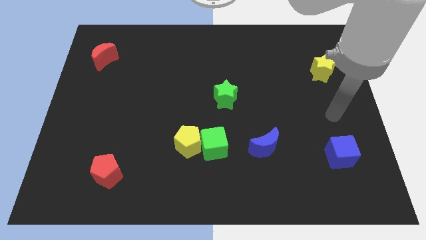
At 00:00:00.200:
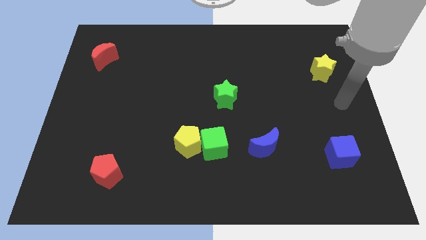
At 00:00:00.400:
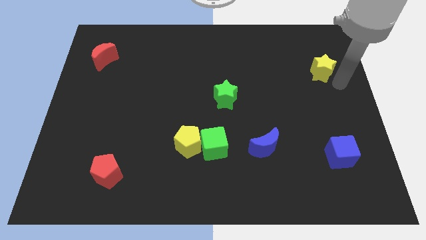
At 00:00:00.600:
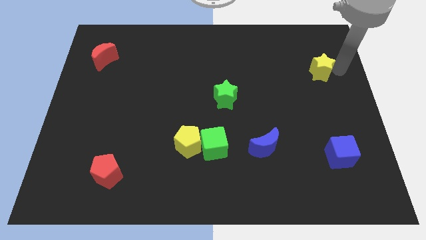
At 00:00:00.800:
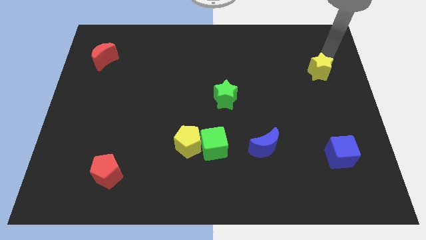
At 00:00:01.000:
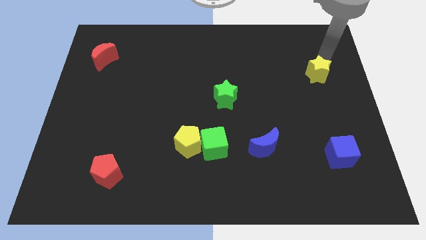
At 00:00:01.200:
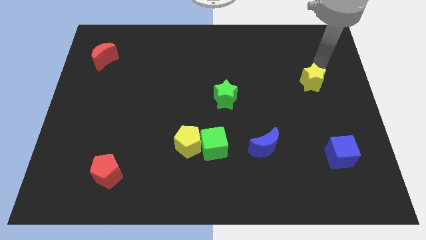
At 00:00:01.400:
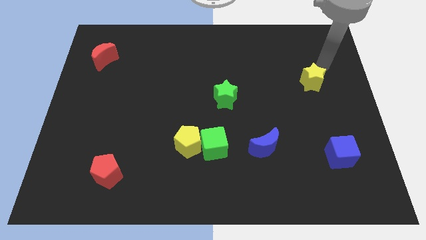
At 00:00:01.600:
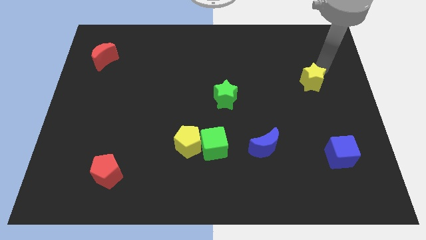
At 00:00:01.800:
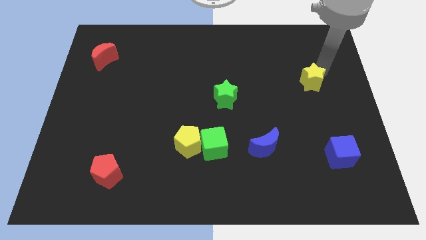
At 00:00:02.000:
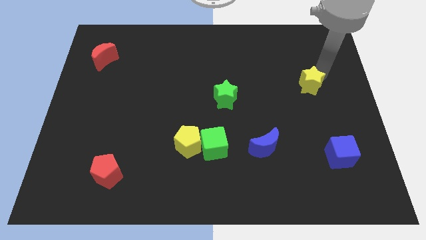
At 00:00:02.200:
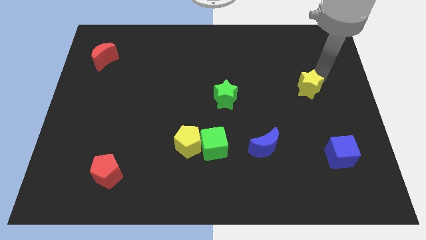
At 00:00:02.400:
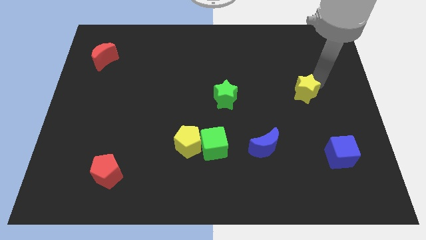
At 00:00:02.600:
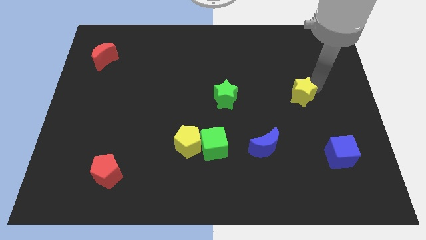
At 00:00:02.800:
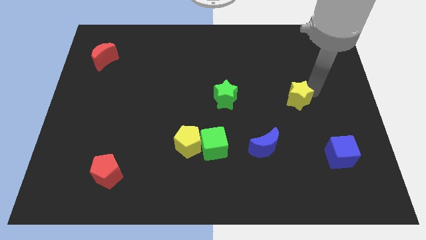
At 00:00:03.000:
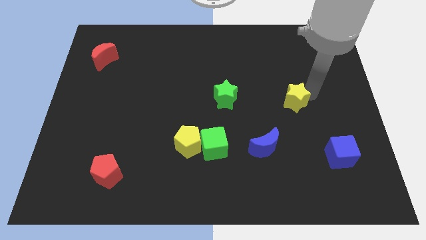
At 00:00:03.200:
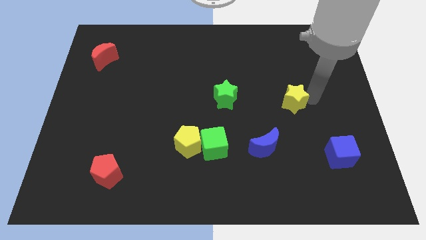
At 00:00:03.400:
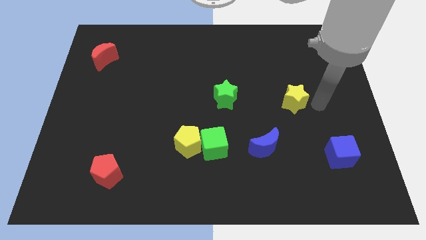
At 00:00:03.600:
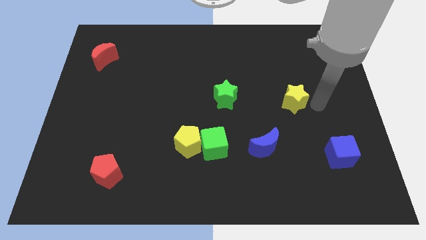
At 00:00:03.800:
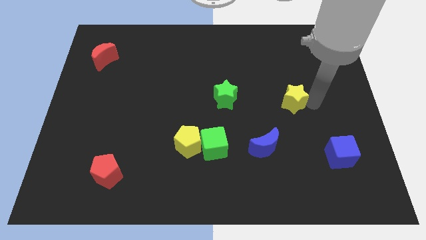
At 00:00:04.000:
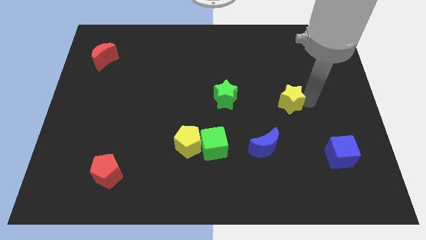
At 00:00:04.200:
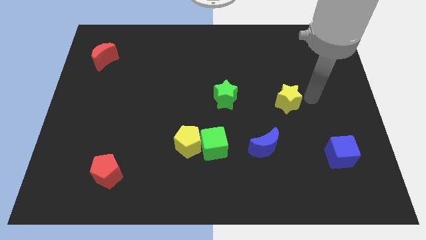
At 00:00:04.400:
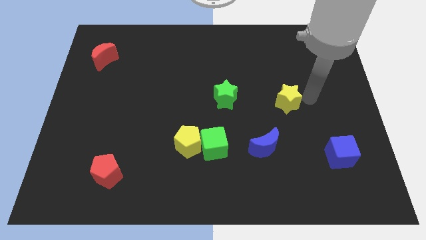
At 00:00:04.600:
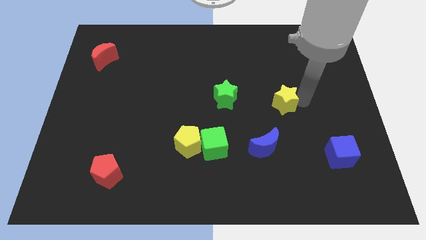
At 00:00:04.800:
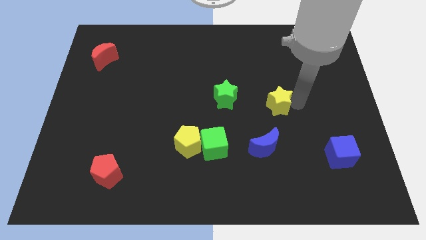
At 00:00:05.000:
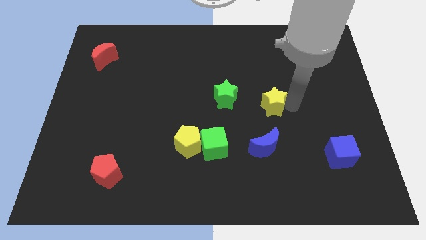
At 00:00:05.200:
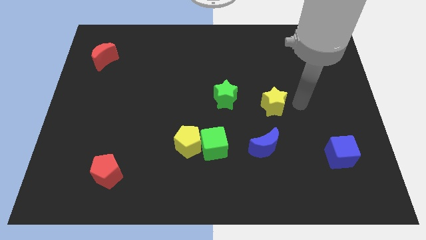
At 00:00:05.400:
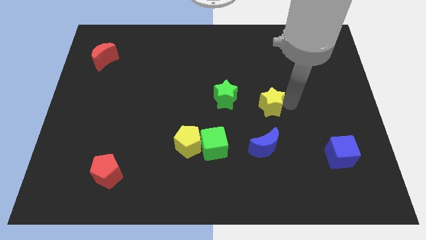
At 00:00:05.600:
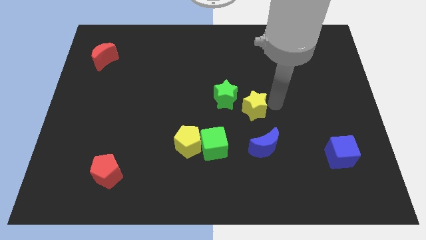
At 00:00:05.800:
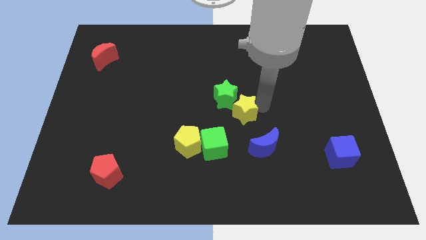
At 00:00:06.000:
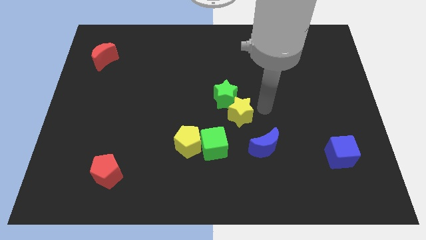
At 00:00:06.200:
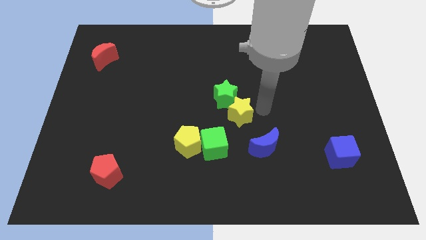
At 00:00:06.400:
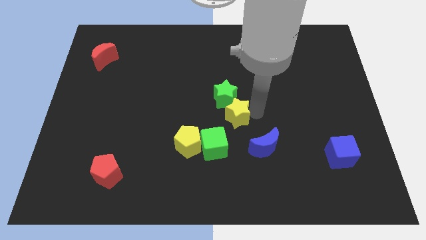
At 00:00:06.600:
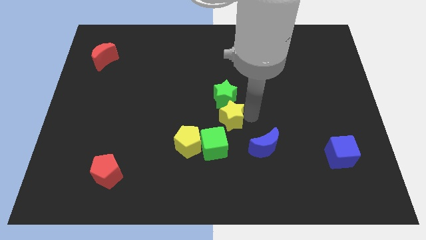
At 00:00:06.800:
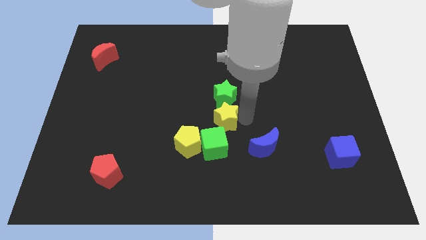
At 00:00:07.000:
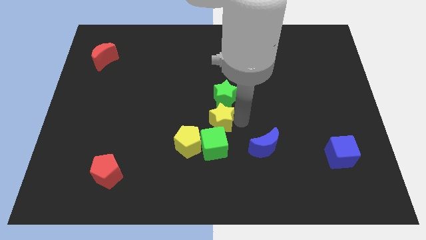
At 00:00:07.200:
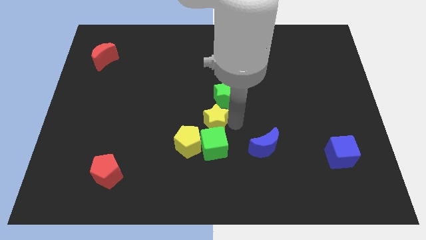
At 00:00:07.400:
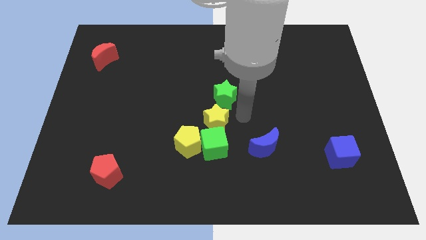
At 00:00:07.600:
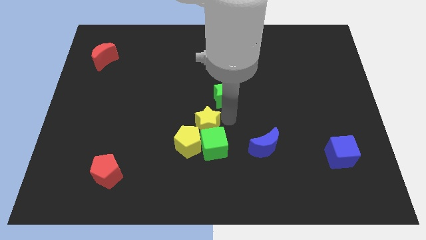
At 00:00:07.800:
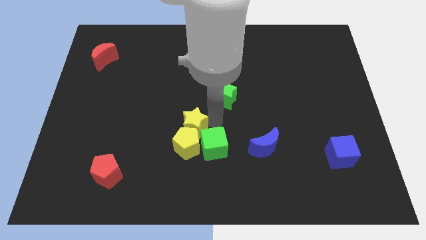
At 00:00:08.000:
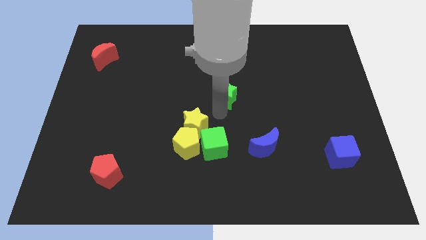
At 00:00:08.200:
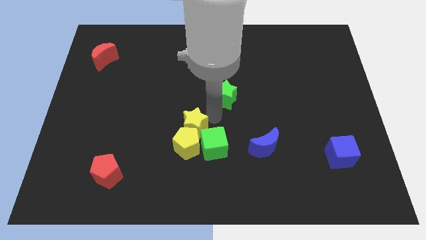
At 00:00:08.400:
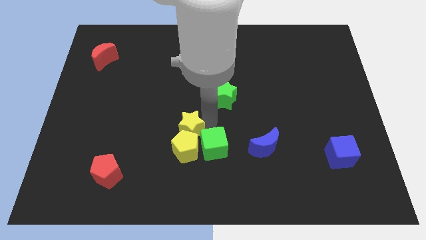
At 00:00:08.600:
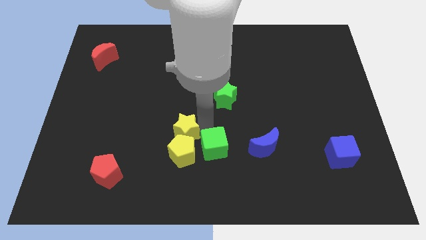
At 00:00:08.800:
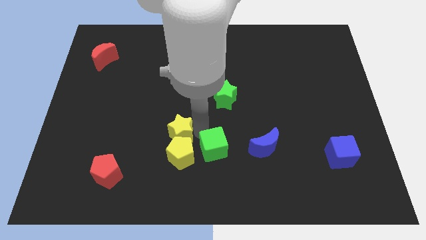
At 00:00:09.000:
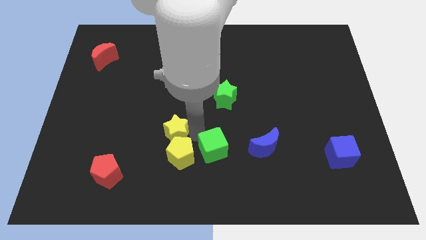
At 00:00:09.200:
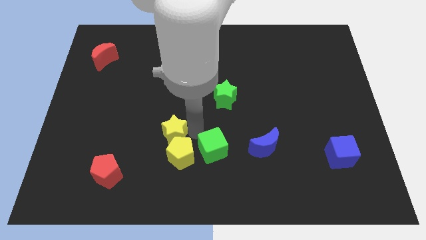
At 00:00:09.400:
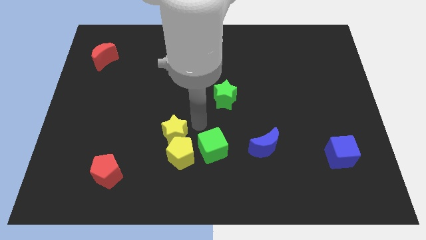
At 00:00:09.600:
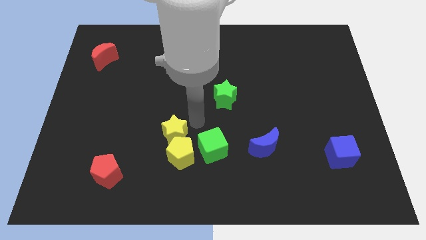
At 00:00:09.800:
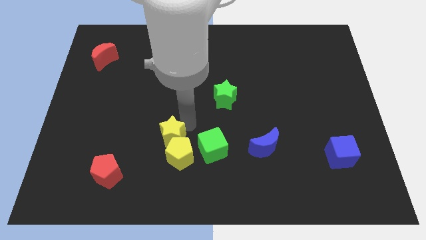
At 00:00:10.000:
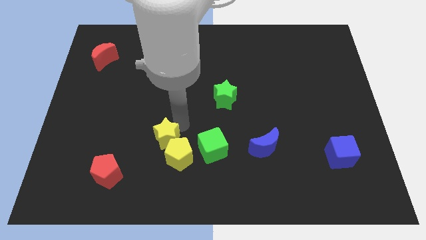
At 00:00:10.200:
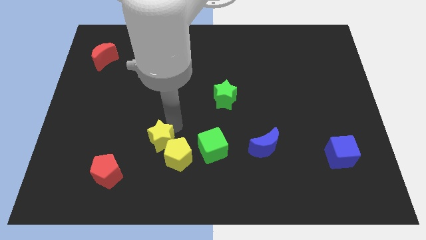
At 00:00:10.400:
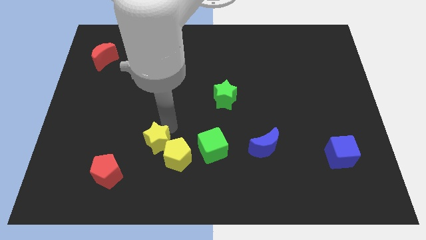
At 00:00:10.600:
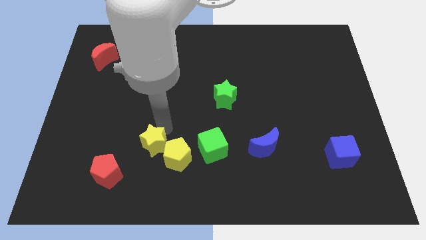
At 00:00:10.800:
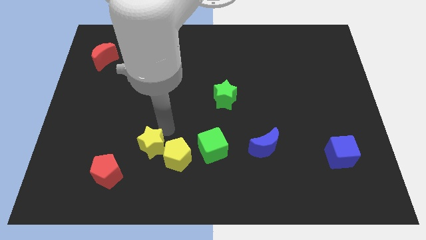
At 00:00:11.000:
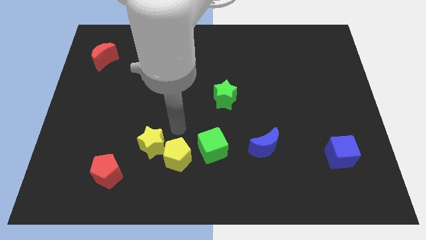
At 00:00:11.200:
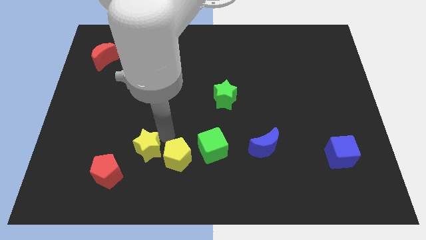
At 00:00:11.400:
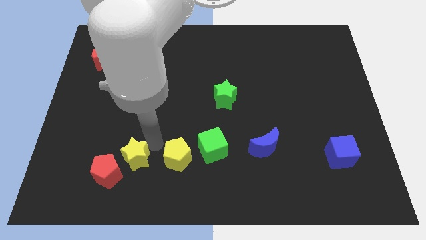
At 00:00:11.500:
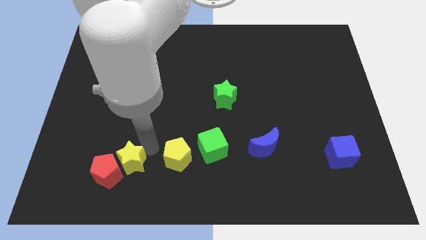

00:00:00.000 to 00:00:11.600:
push the yellow star to the red pentagon
